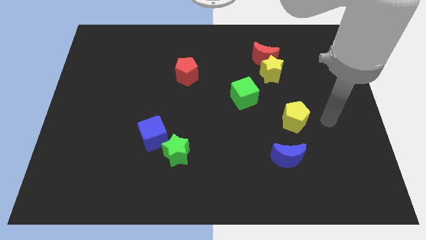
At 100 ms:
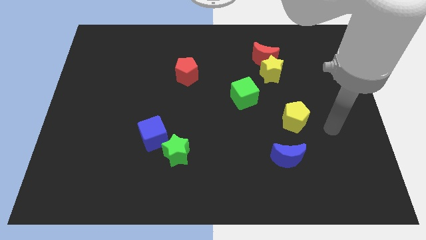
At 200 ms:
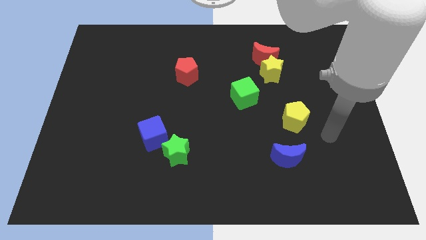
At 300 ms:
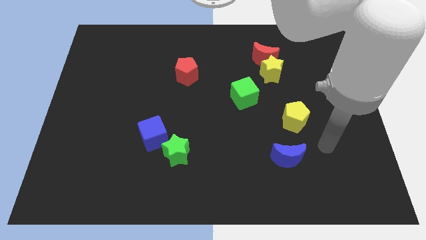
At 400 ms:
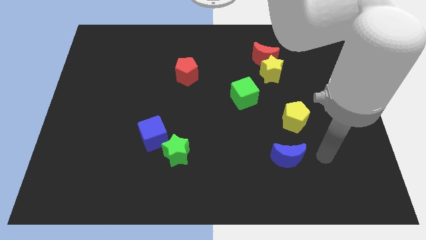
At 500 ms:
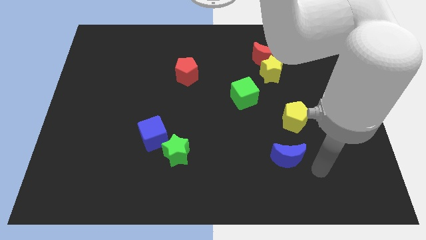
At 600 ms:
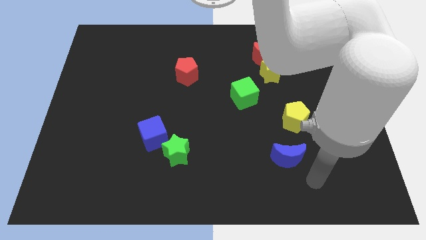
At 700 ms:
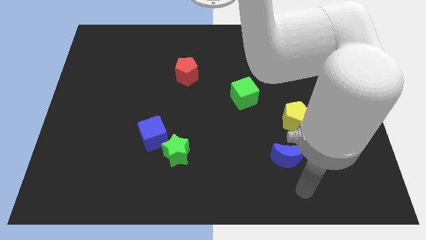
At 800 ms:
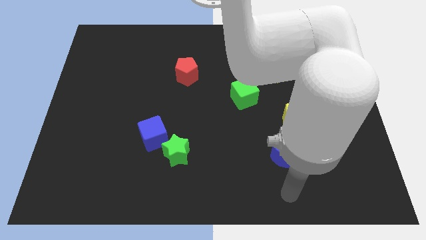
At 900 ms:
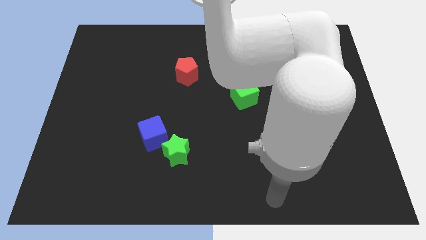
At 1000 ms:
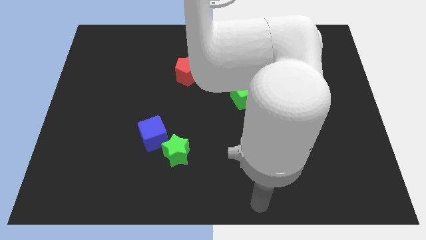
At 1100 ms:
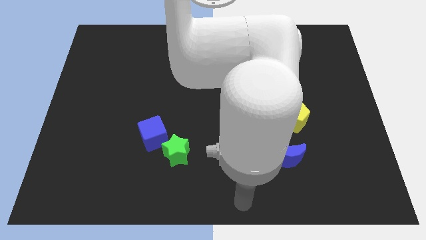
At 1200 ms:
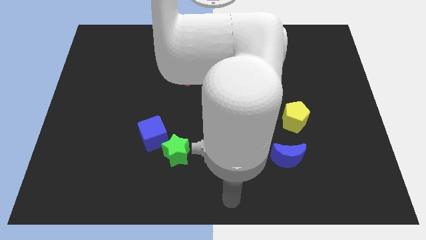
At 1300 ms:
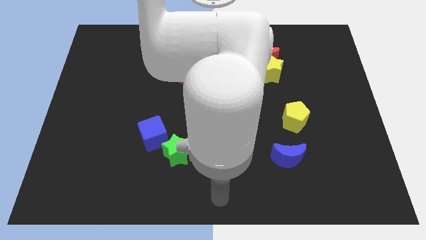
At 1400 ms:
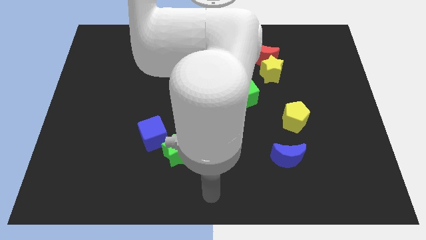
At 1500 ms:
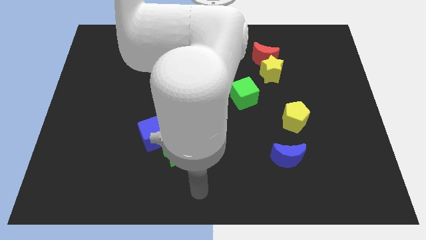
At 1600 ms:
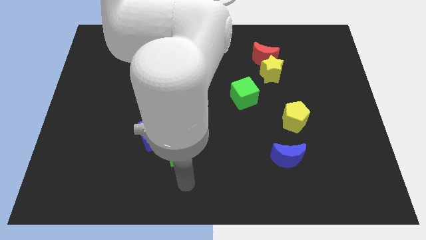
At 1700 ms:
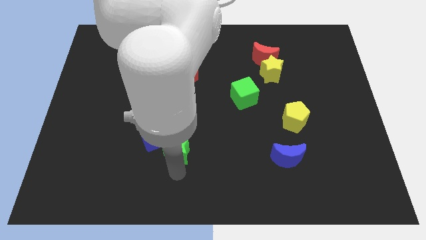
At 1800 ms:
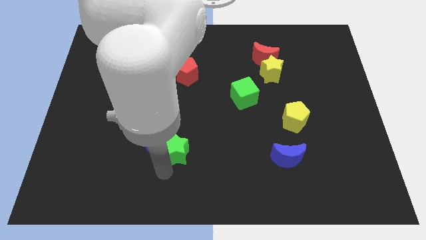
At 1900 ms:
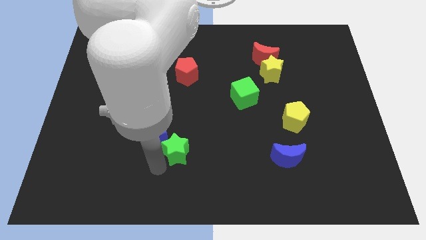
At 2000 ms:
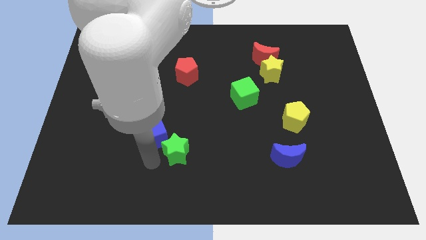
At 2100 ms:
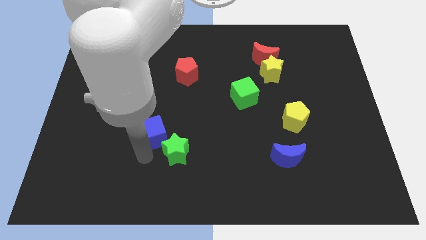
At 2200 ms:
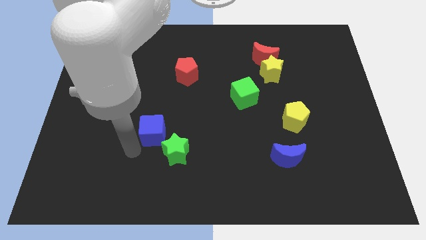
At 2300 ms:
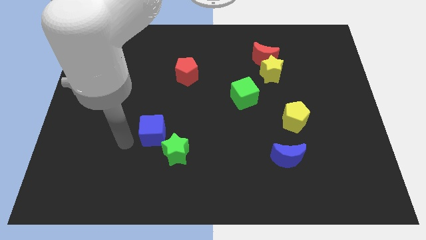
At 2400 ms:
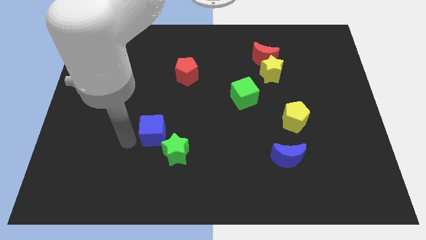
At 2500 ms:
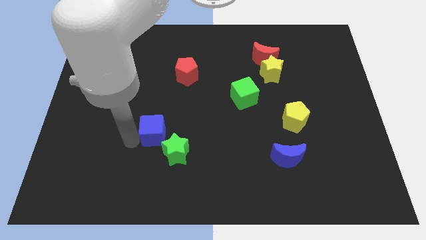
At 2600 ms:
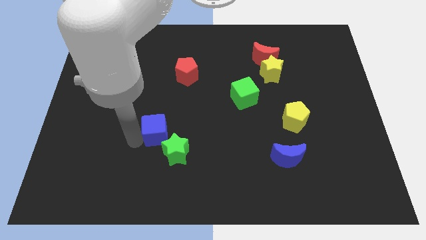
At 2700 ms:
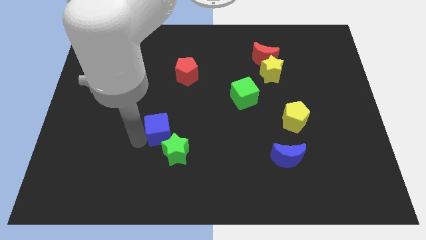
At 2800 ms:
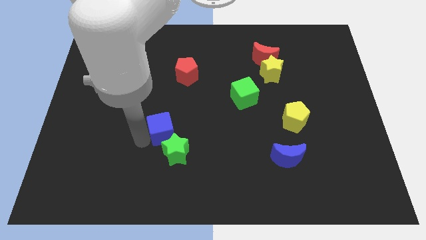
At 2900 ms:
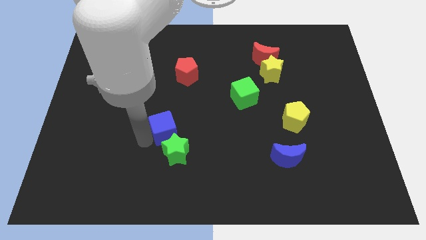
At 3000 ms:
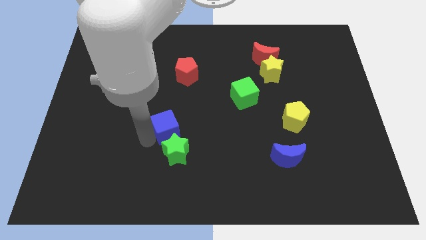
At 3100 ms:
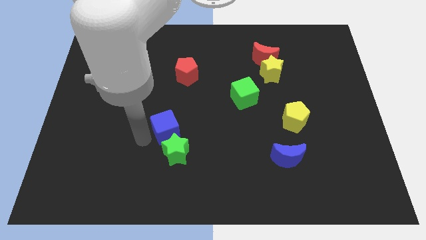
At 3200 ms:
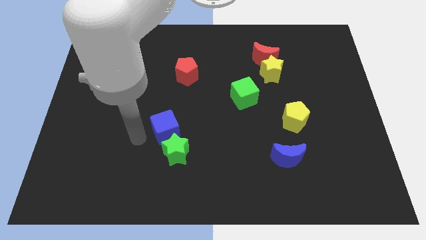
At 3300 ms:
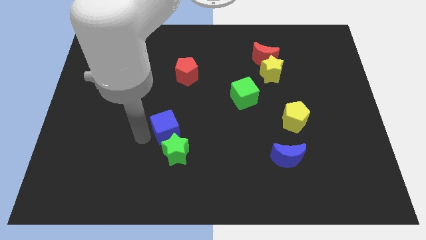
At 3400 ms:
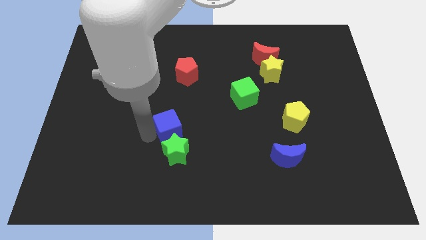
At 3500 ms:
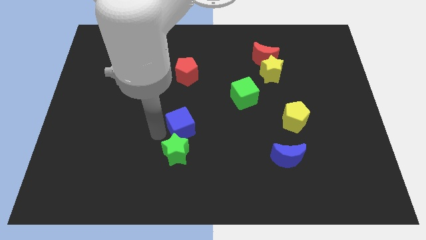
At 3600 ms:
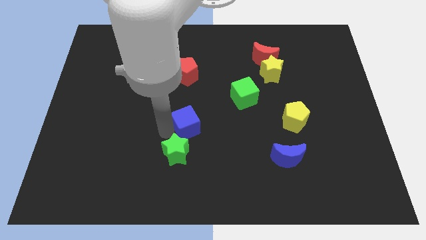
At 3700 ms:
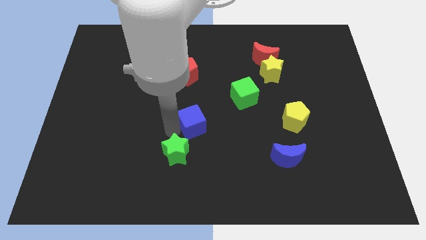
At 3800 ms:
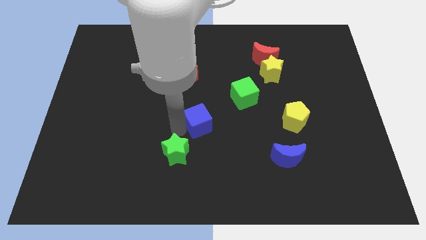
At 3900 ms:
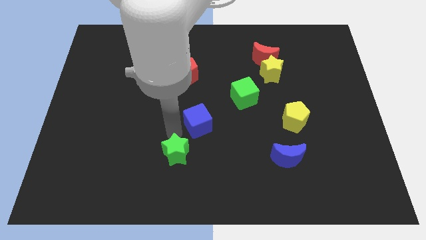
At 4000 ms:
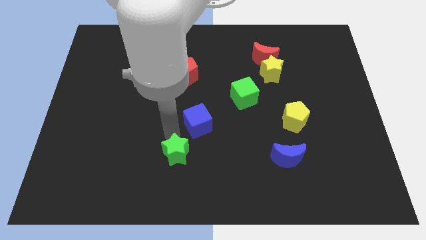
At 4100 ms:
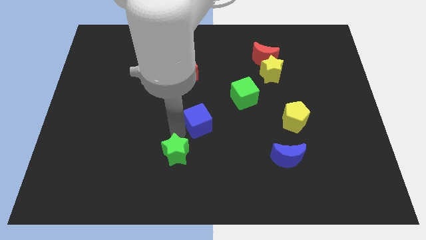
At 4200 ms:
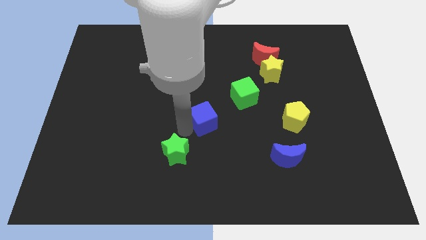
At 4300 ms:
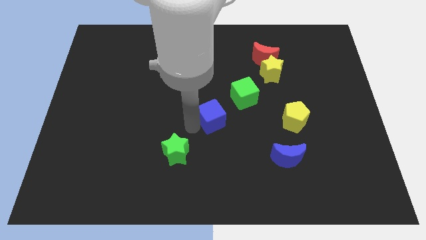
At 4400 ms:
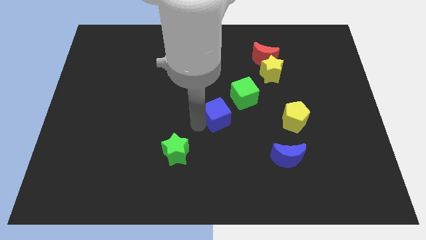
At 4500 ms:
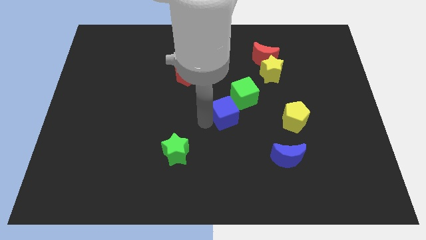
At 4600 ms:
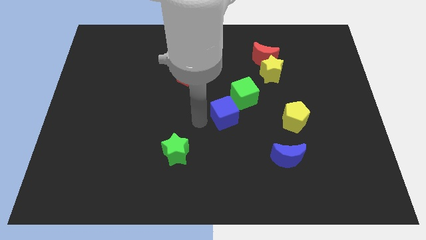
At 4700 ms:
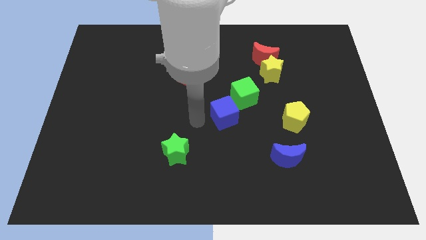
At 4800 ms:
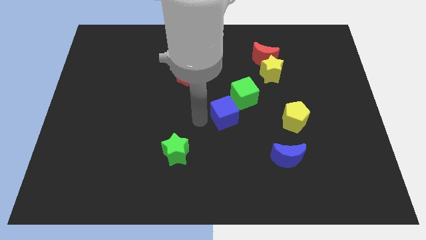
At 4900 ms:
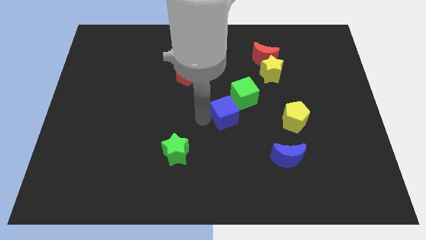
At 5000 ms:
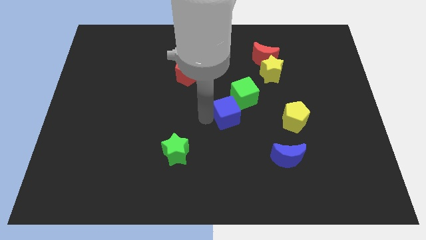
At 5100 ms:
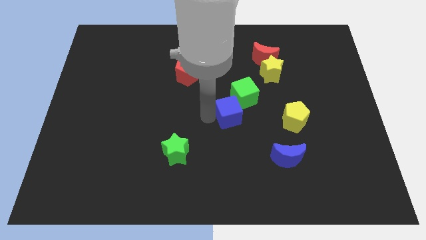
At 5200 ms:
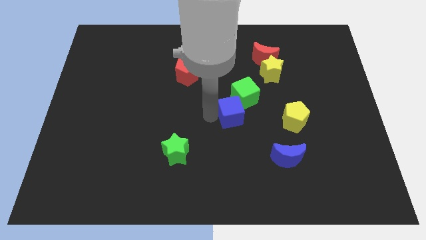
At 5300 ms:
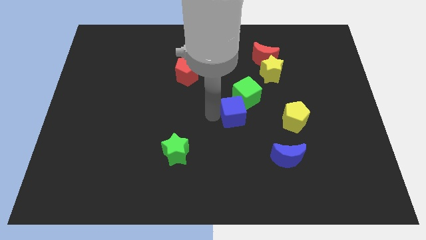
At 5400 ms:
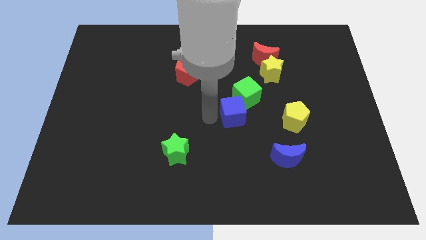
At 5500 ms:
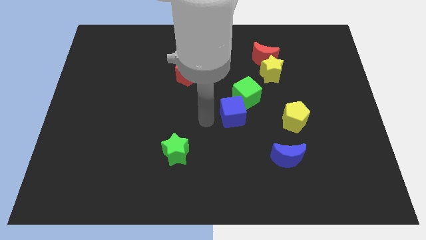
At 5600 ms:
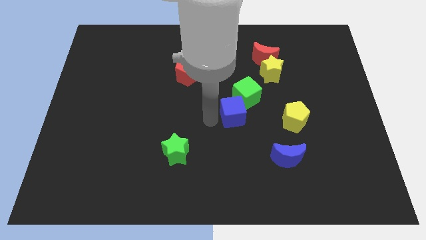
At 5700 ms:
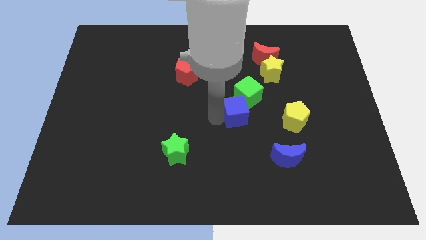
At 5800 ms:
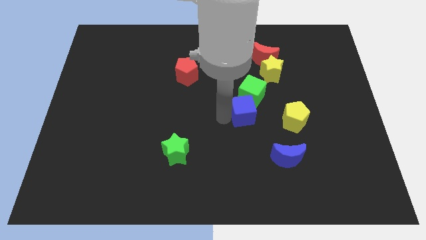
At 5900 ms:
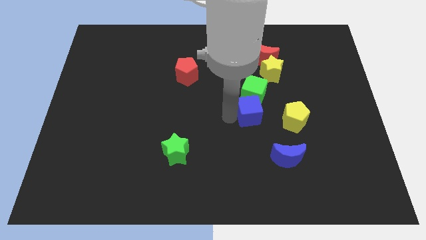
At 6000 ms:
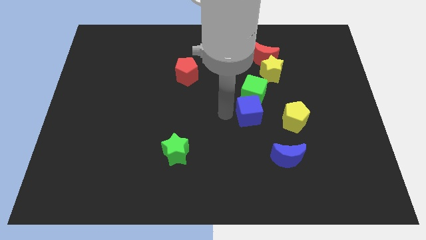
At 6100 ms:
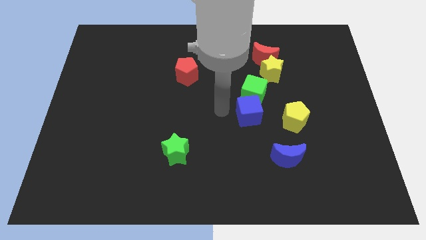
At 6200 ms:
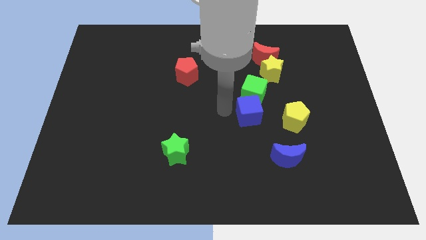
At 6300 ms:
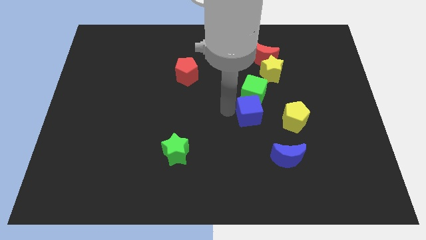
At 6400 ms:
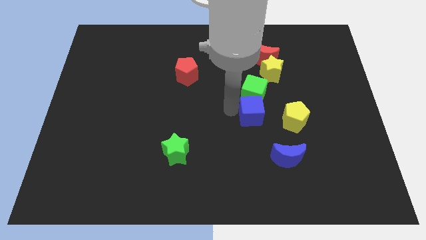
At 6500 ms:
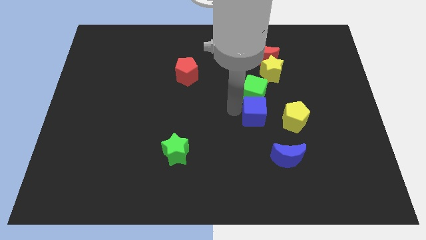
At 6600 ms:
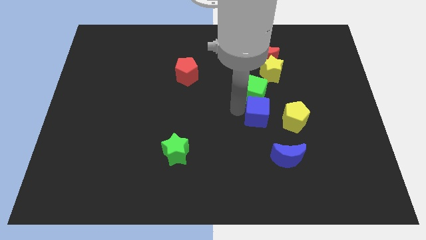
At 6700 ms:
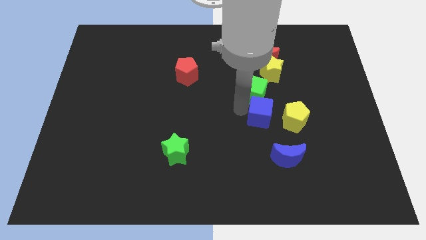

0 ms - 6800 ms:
push the blue cube to the top side of the blue moon

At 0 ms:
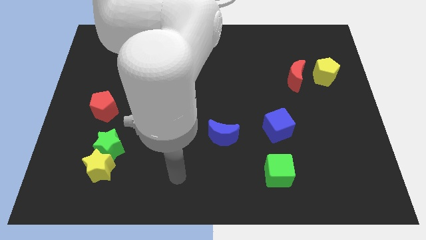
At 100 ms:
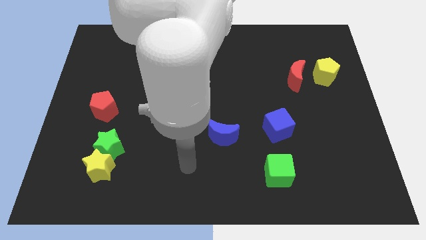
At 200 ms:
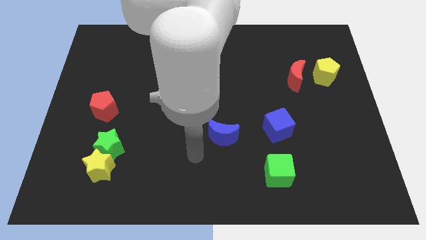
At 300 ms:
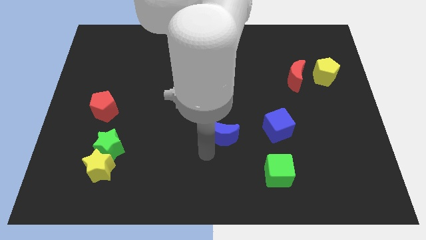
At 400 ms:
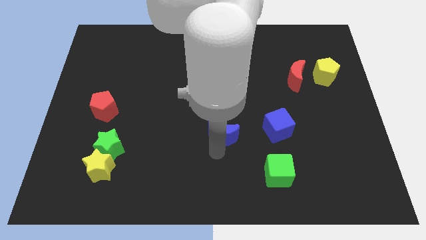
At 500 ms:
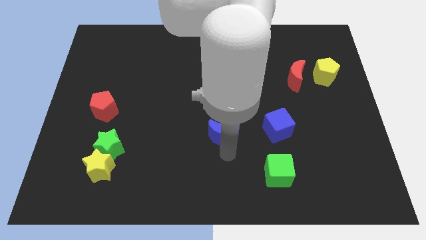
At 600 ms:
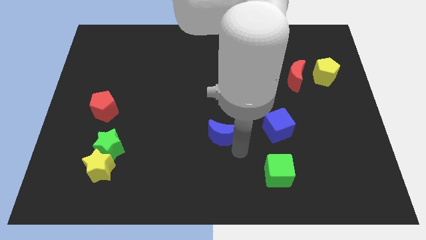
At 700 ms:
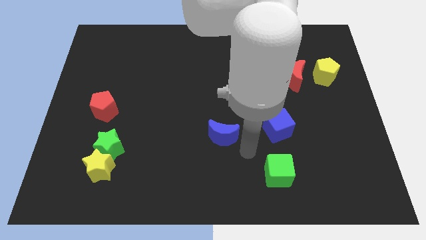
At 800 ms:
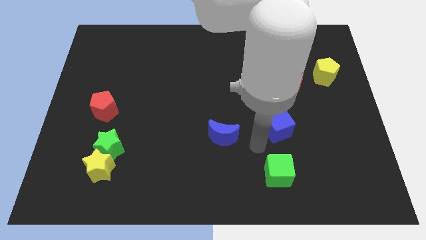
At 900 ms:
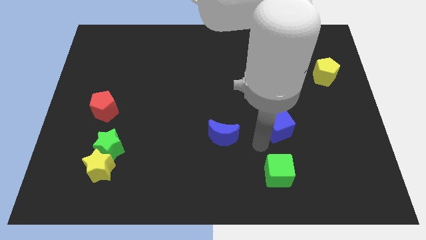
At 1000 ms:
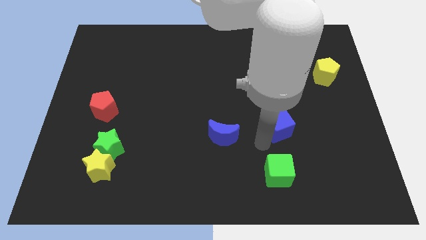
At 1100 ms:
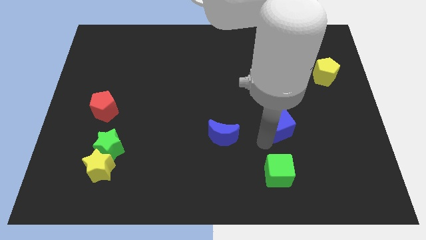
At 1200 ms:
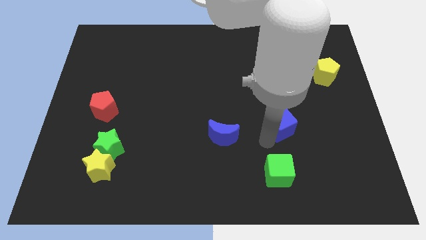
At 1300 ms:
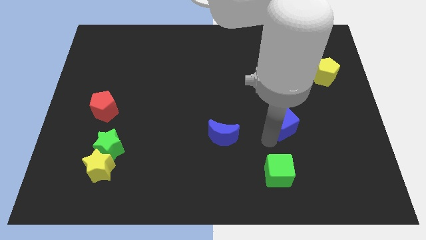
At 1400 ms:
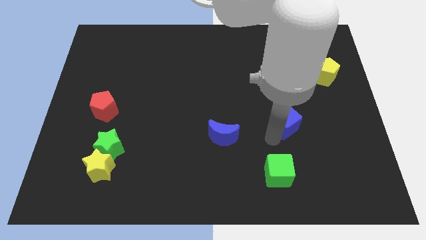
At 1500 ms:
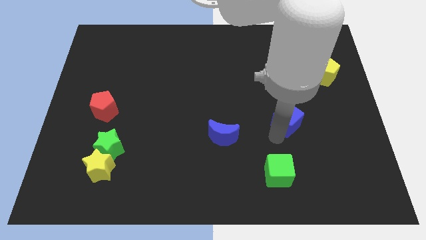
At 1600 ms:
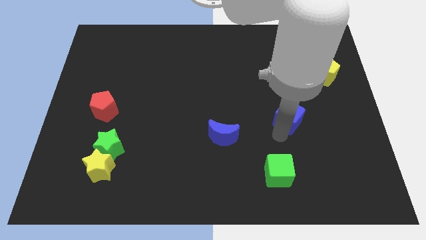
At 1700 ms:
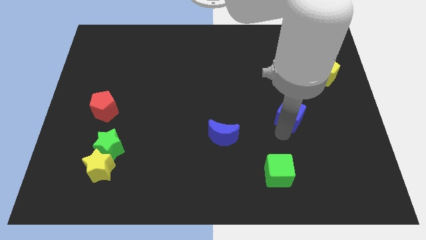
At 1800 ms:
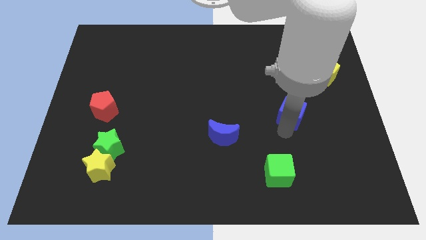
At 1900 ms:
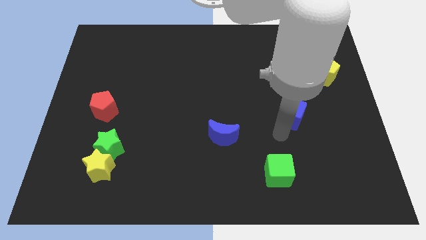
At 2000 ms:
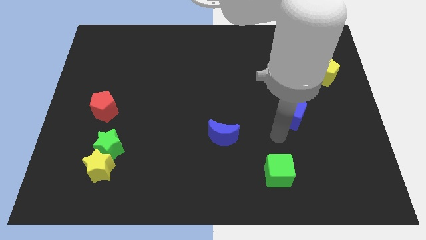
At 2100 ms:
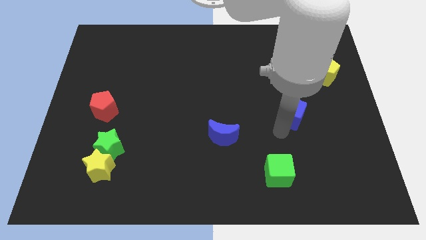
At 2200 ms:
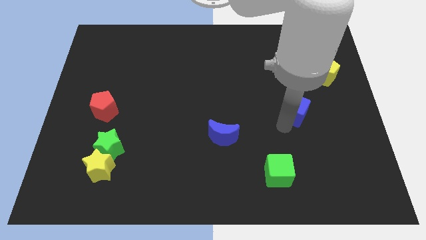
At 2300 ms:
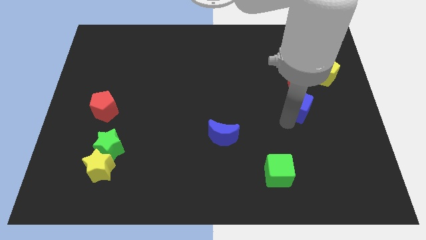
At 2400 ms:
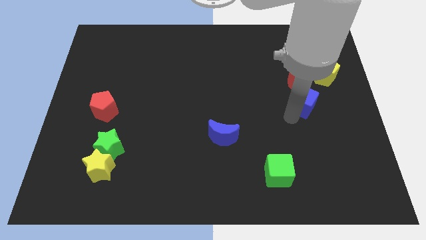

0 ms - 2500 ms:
put the blue cube diagonally down and to the left of the yellow pentagon
